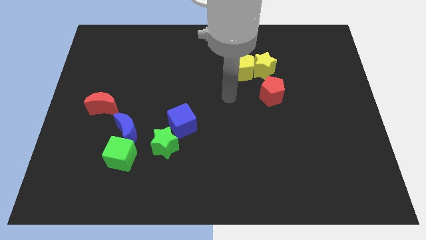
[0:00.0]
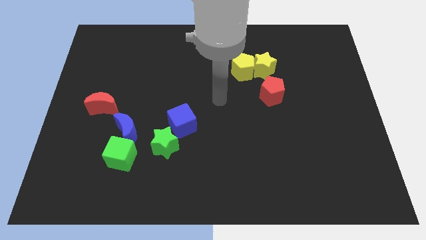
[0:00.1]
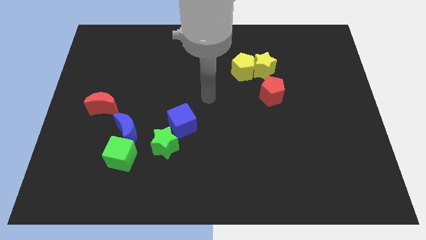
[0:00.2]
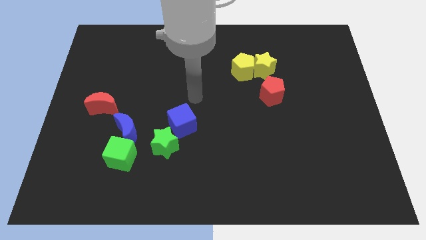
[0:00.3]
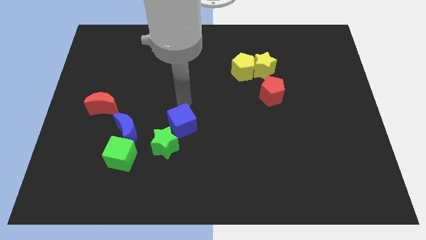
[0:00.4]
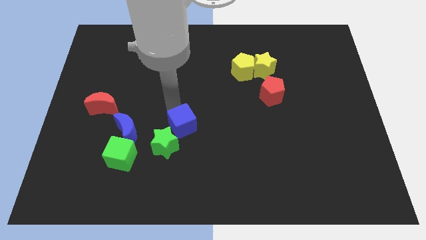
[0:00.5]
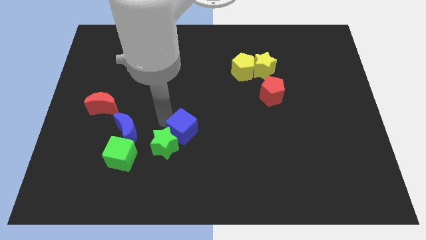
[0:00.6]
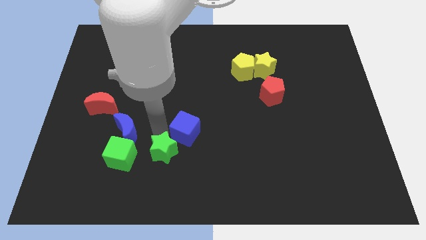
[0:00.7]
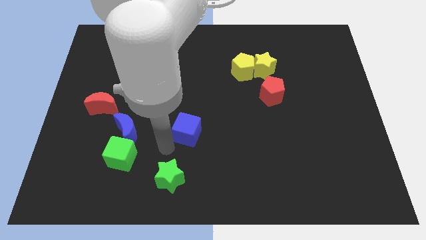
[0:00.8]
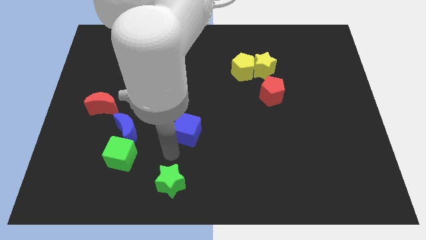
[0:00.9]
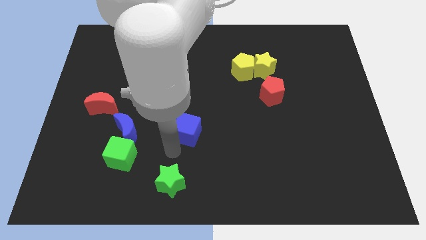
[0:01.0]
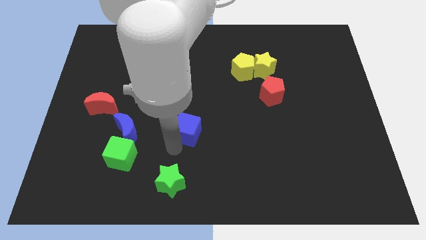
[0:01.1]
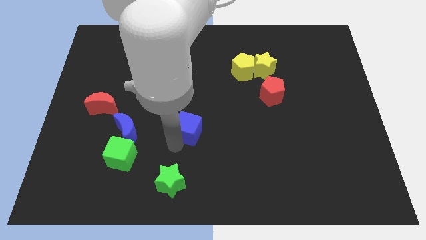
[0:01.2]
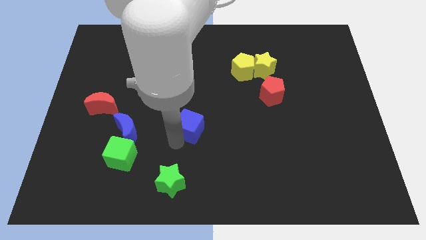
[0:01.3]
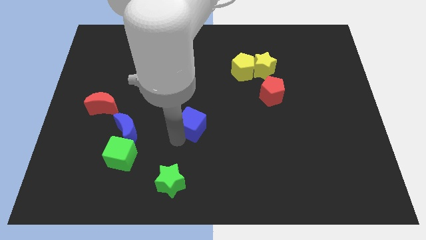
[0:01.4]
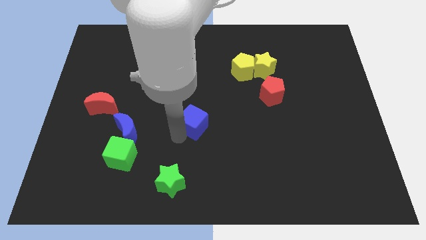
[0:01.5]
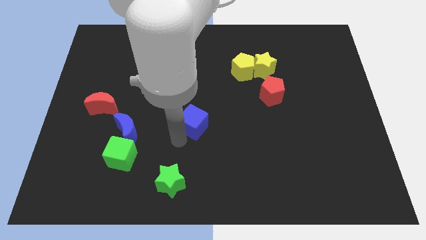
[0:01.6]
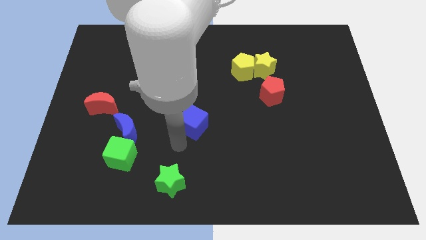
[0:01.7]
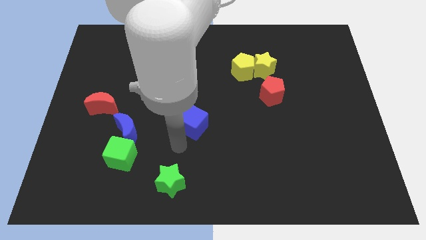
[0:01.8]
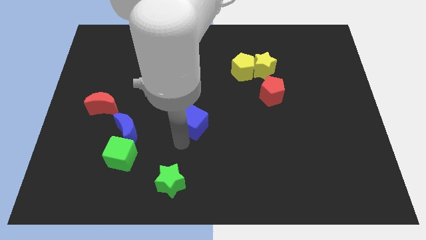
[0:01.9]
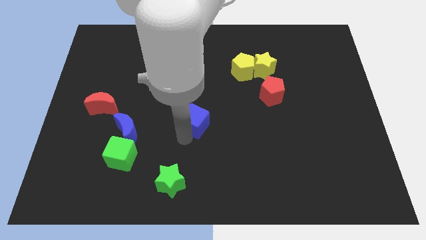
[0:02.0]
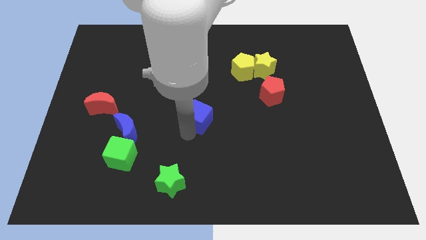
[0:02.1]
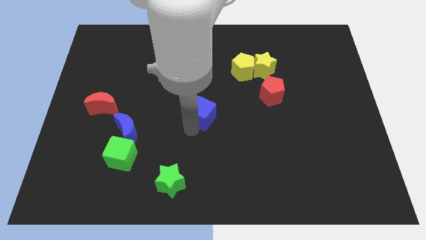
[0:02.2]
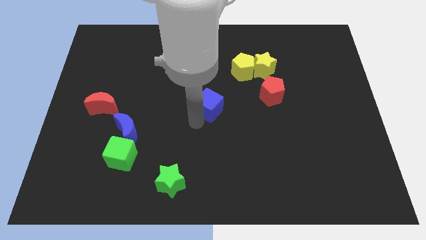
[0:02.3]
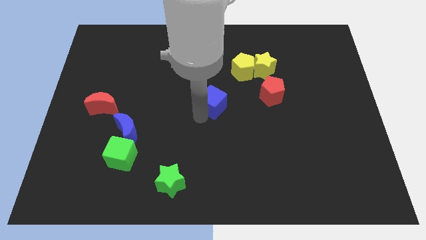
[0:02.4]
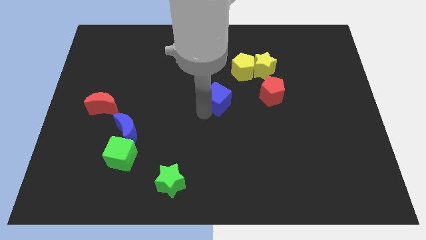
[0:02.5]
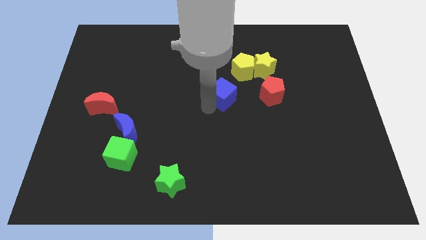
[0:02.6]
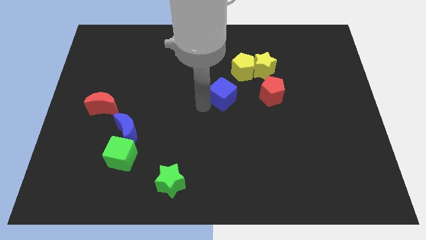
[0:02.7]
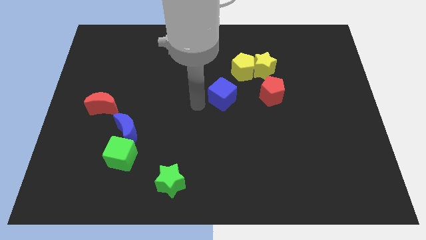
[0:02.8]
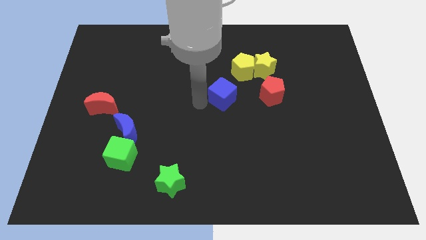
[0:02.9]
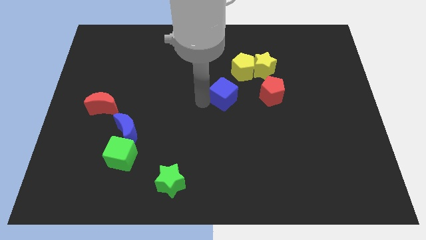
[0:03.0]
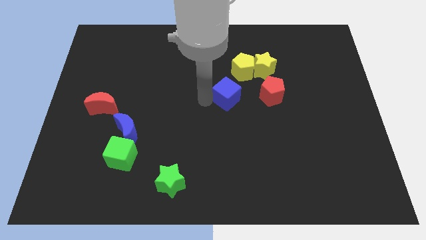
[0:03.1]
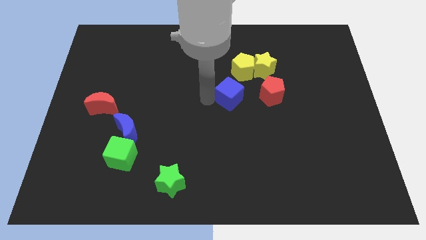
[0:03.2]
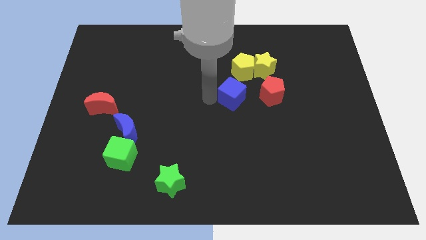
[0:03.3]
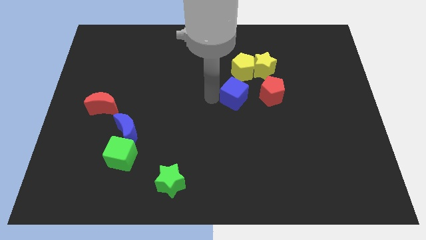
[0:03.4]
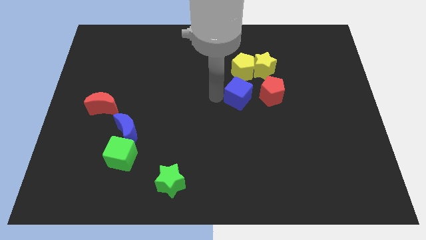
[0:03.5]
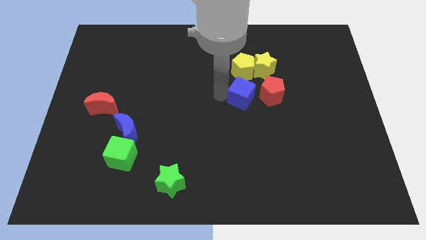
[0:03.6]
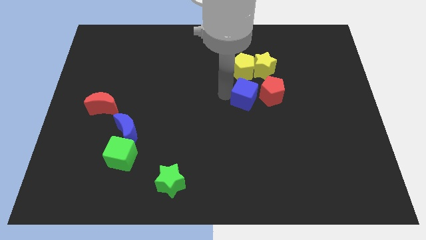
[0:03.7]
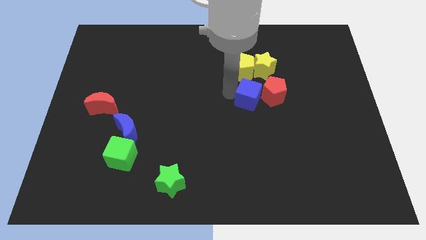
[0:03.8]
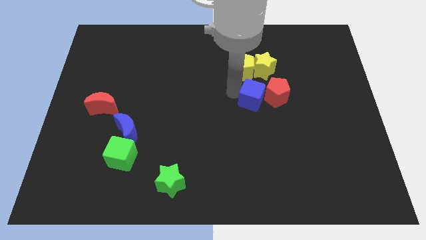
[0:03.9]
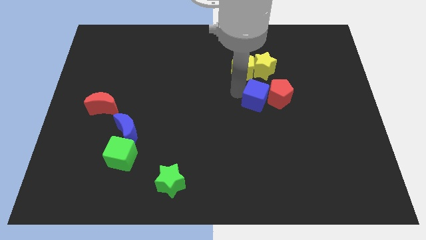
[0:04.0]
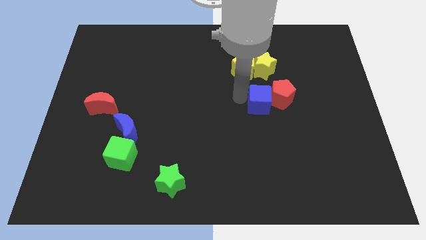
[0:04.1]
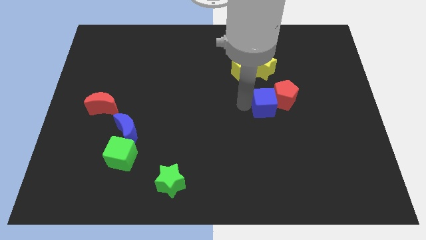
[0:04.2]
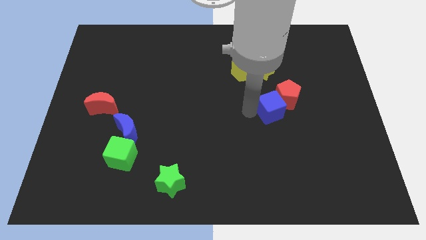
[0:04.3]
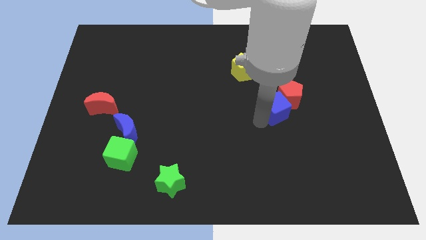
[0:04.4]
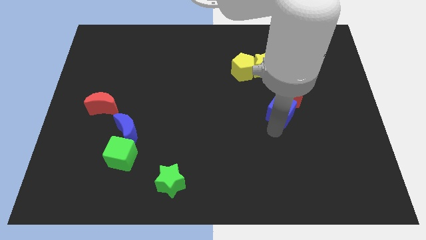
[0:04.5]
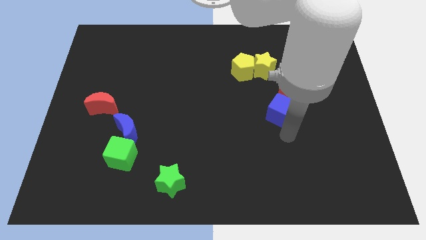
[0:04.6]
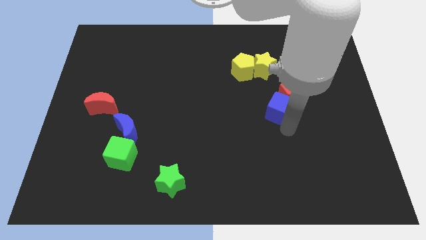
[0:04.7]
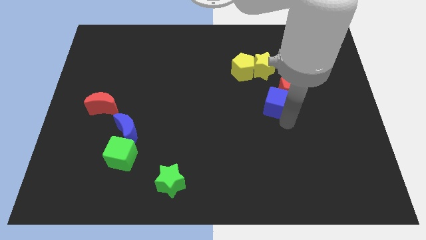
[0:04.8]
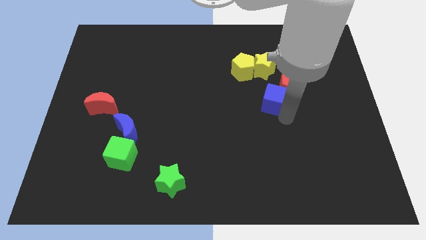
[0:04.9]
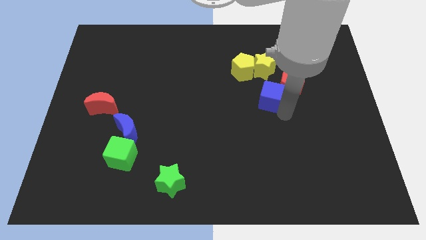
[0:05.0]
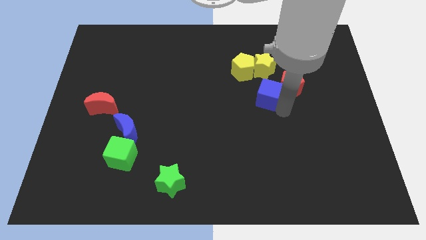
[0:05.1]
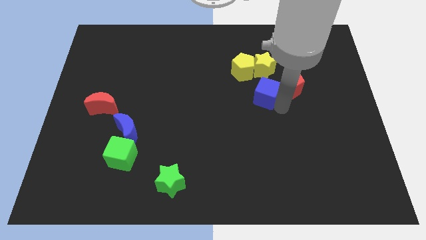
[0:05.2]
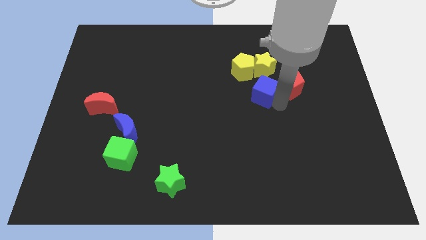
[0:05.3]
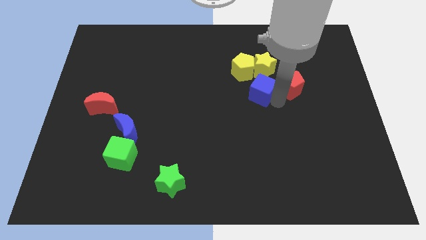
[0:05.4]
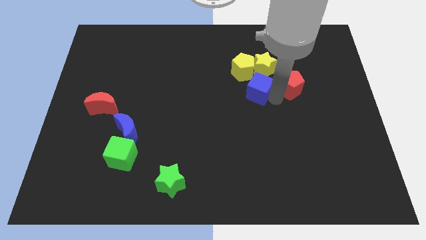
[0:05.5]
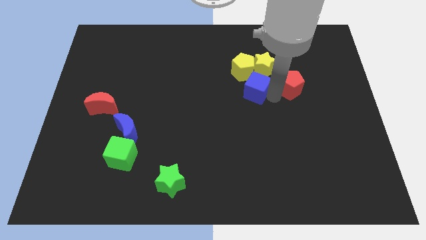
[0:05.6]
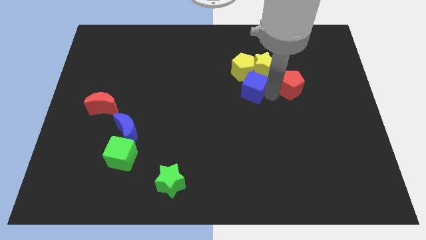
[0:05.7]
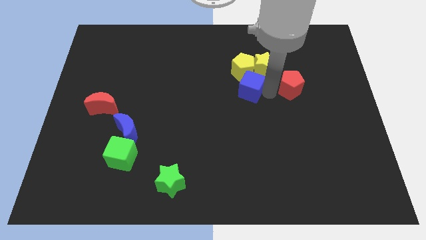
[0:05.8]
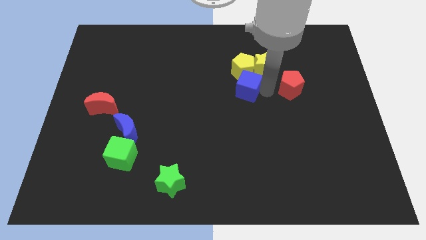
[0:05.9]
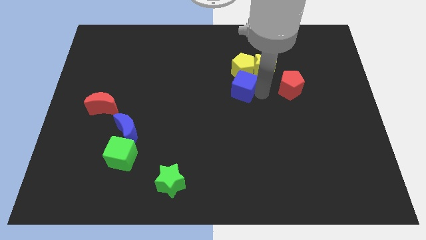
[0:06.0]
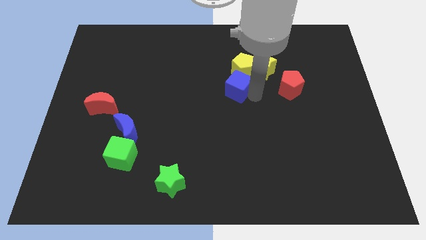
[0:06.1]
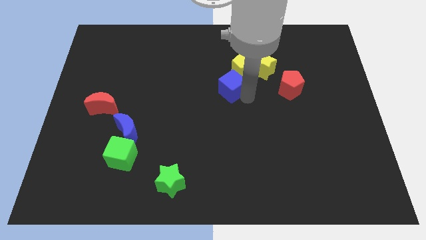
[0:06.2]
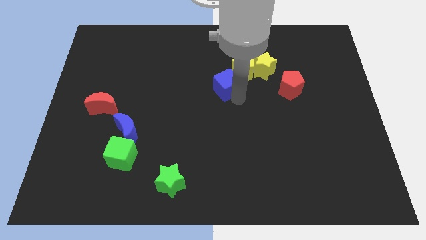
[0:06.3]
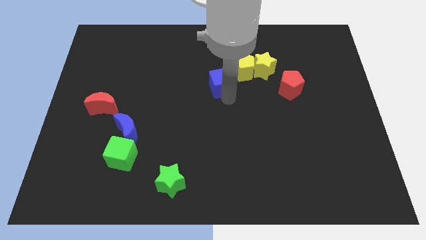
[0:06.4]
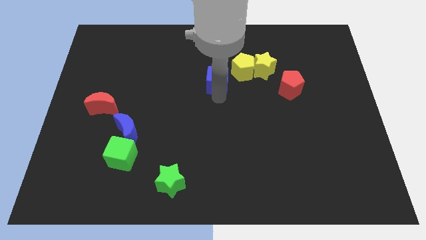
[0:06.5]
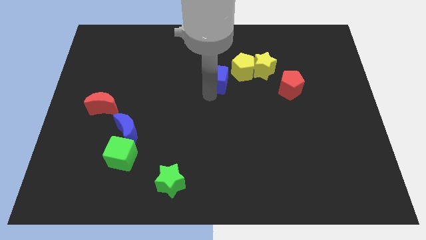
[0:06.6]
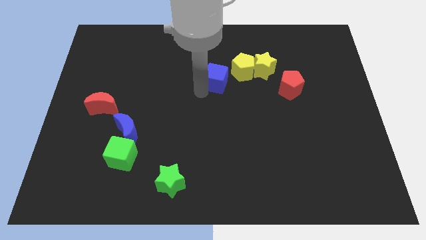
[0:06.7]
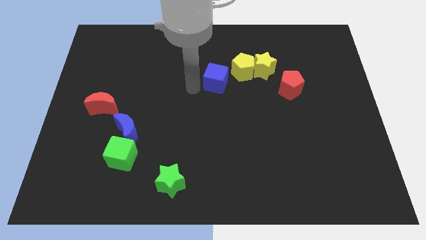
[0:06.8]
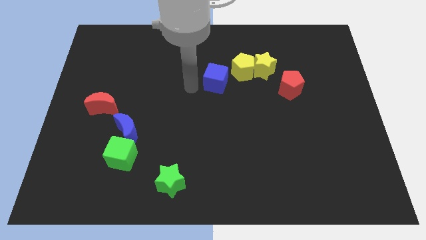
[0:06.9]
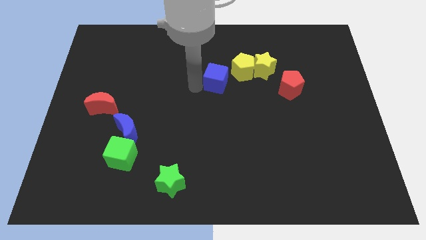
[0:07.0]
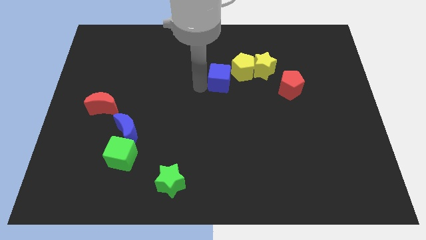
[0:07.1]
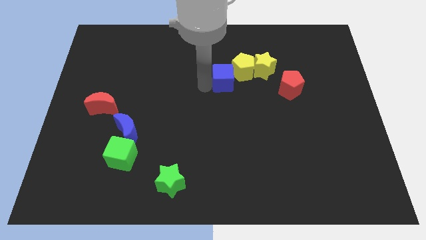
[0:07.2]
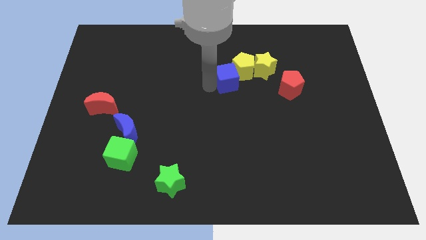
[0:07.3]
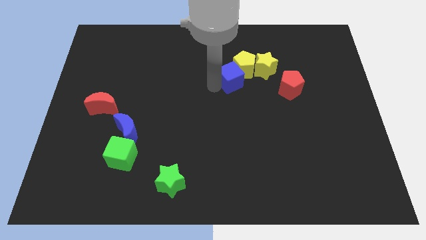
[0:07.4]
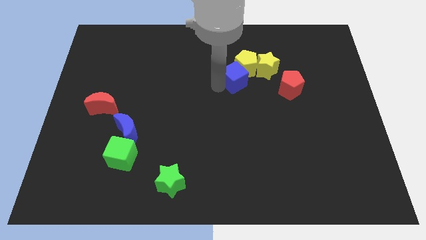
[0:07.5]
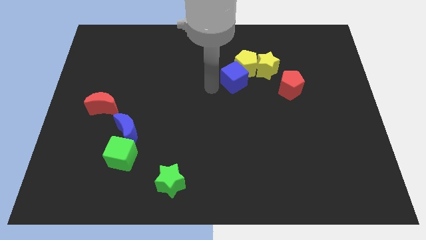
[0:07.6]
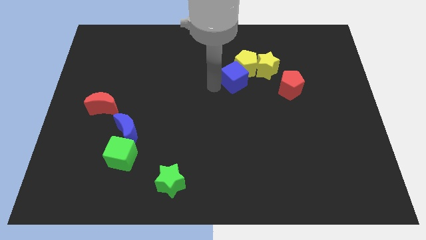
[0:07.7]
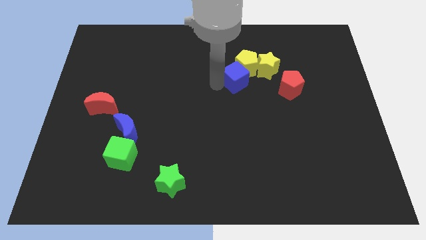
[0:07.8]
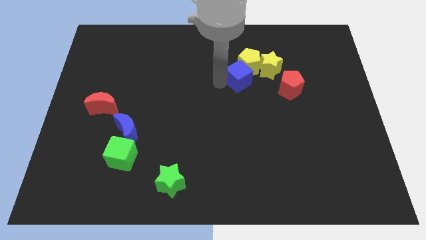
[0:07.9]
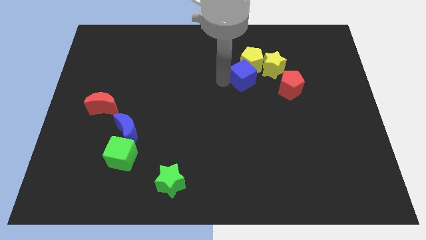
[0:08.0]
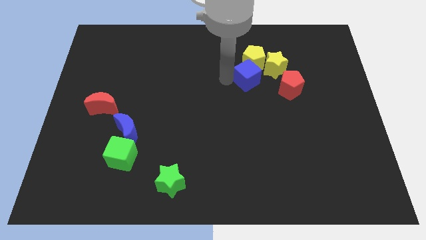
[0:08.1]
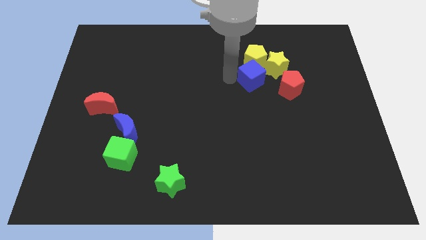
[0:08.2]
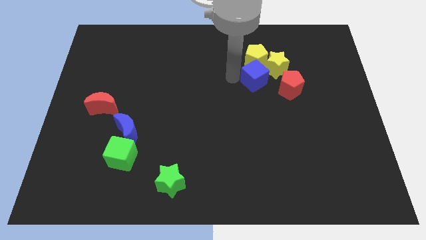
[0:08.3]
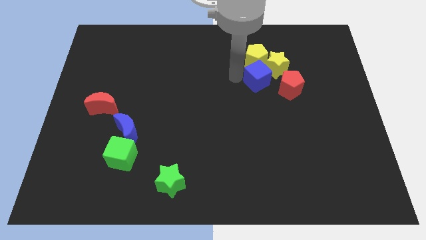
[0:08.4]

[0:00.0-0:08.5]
push the blue cube towards the yellow star
